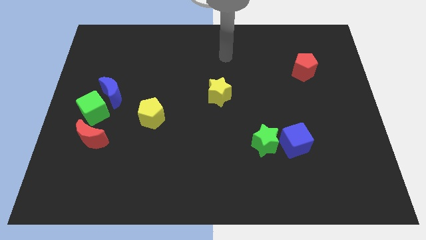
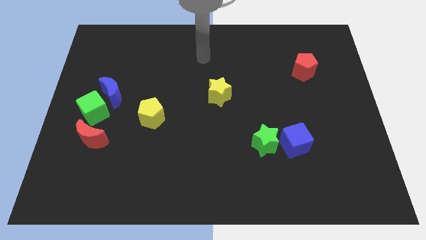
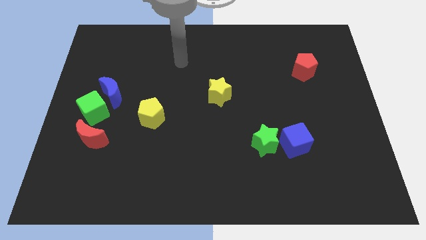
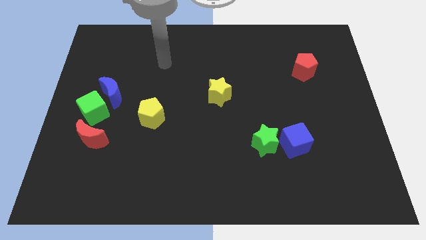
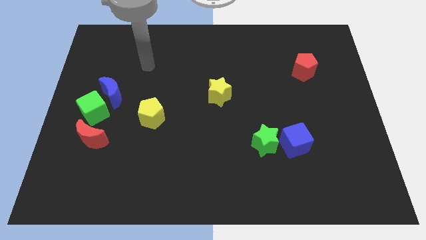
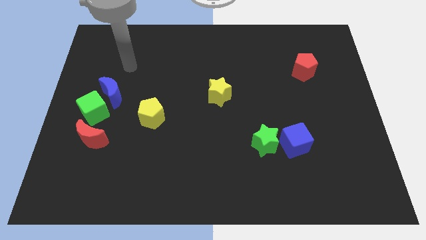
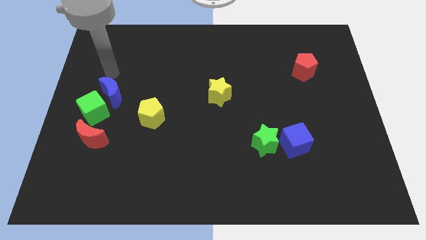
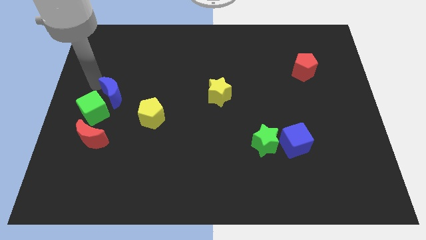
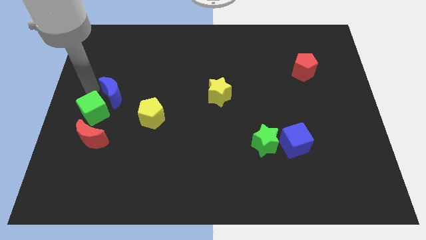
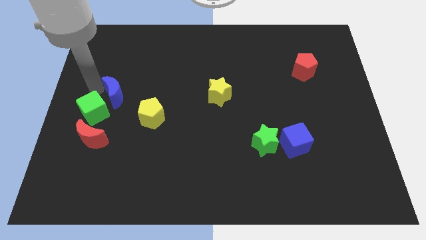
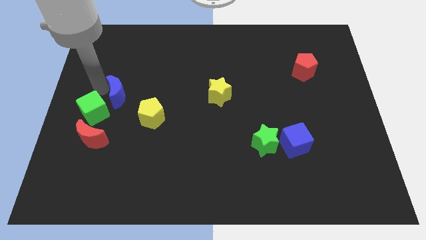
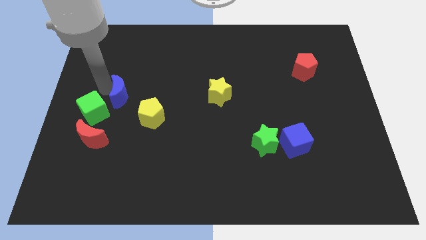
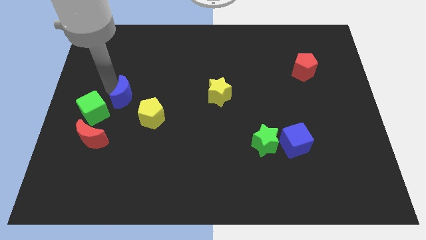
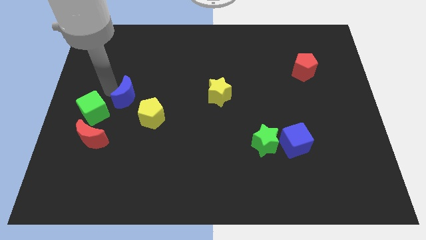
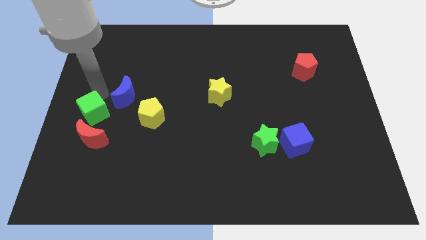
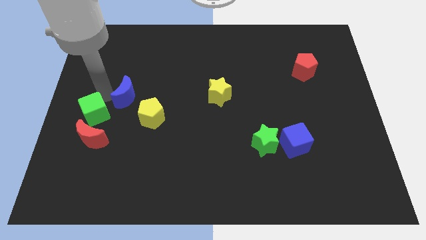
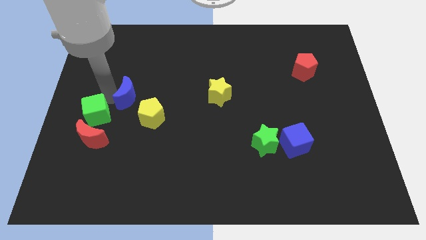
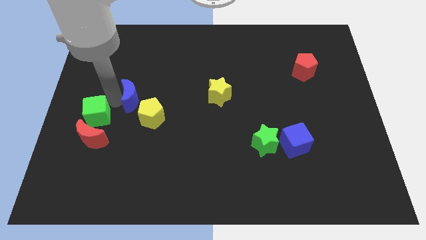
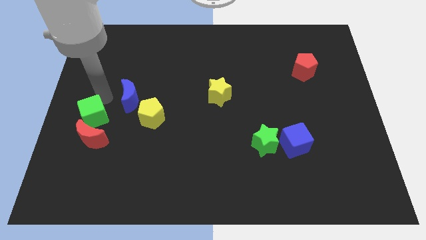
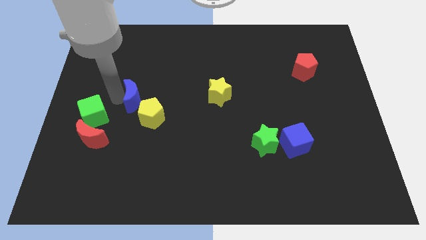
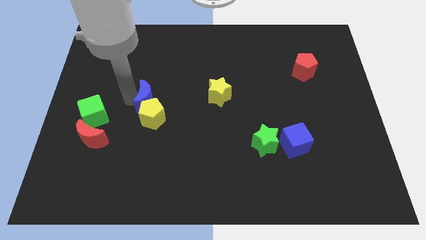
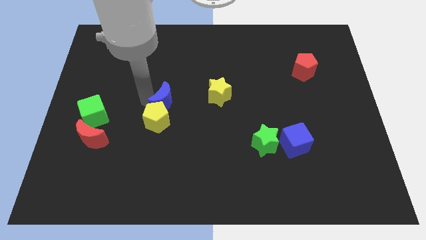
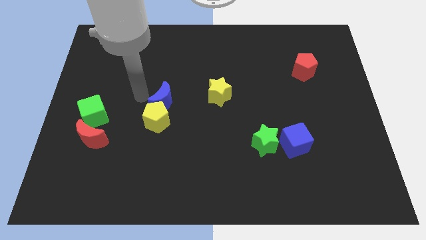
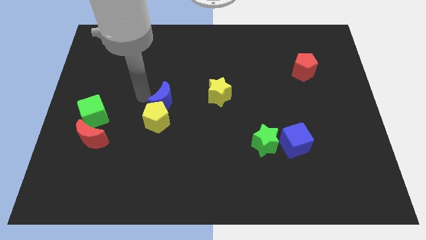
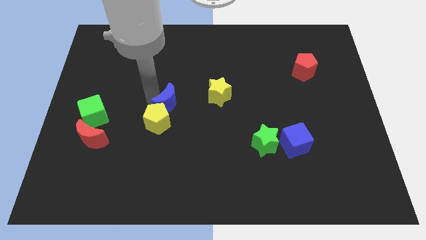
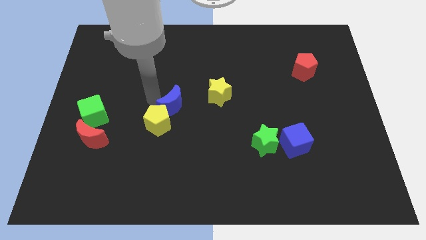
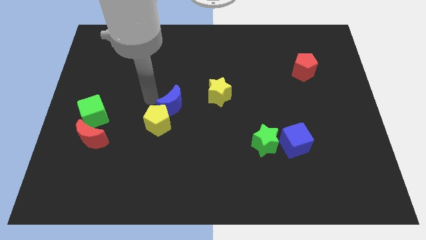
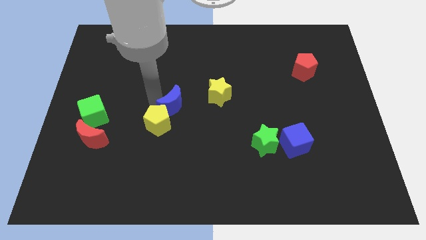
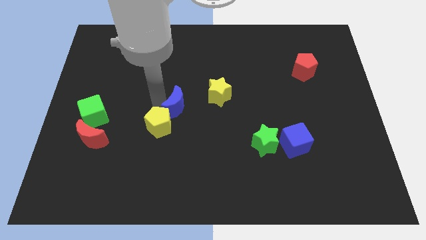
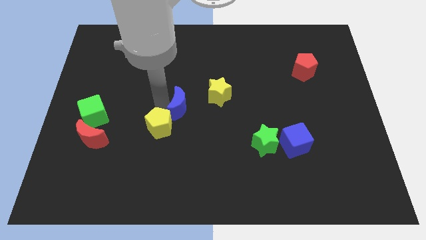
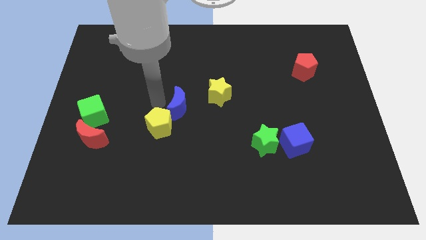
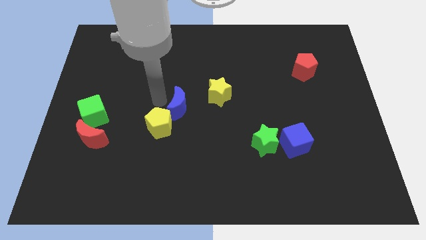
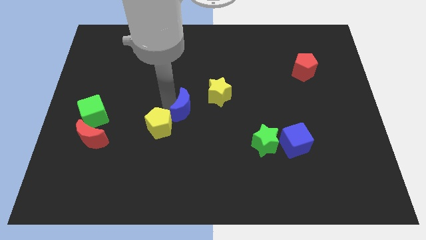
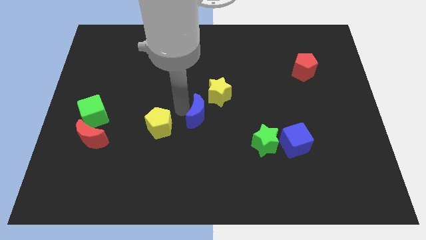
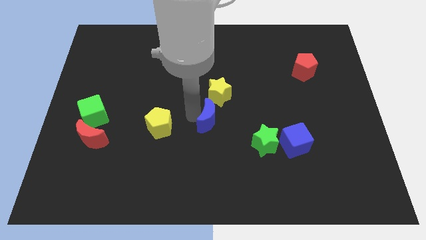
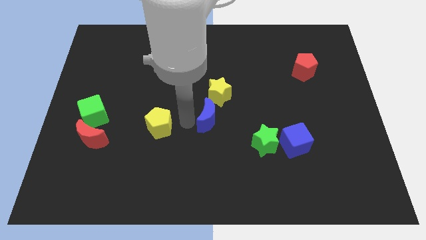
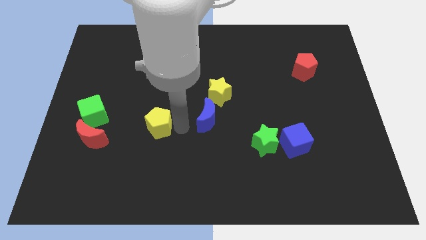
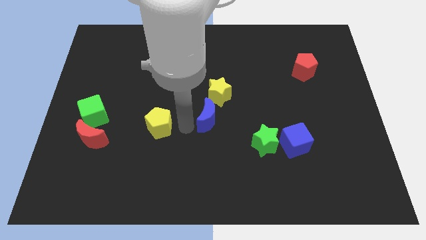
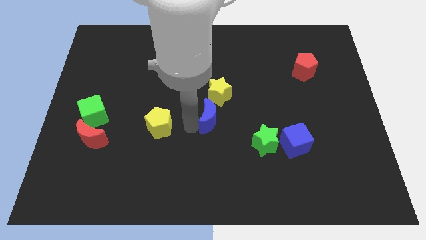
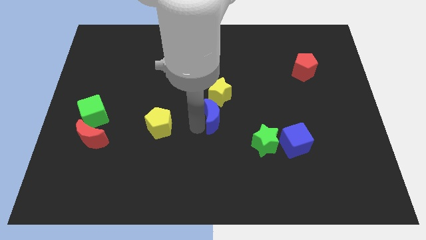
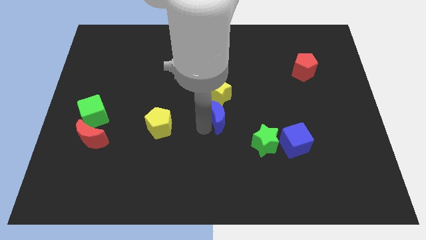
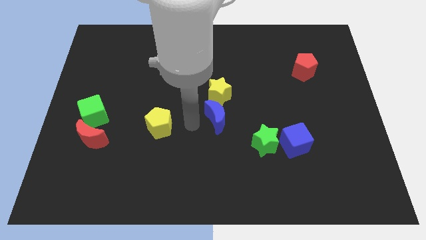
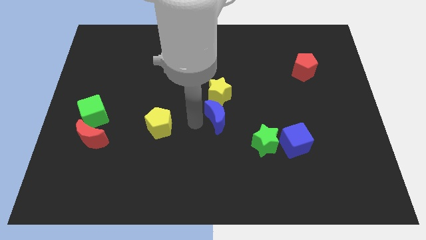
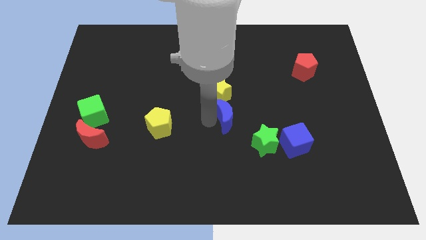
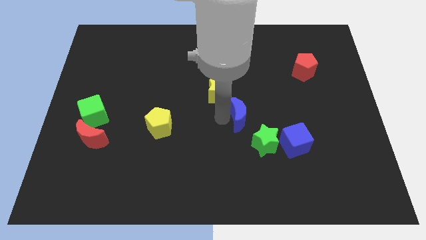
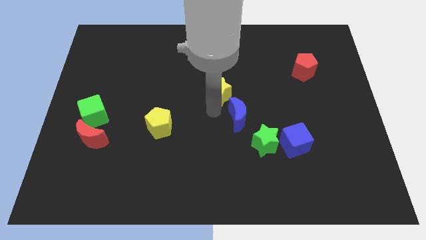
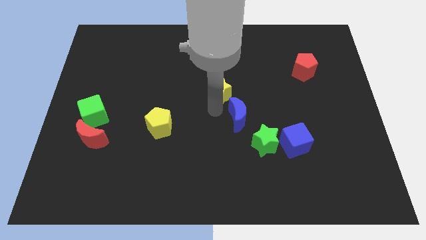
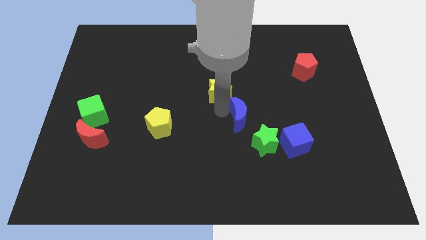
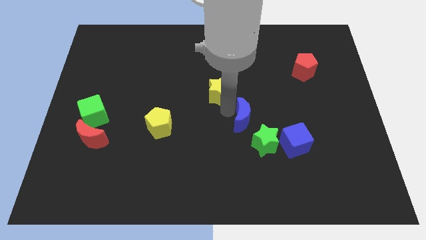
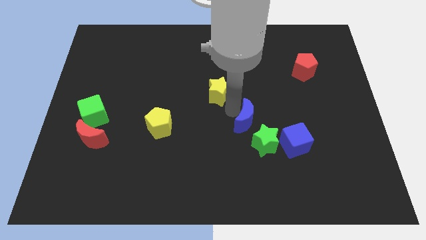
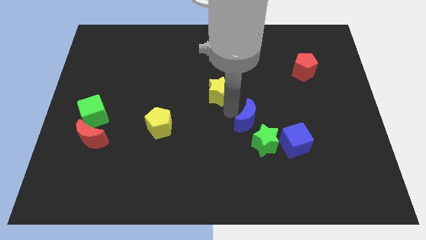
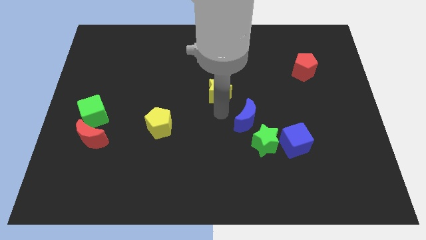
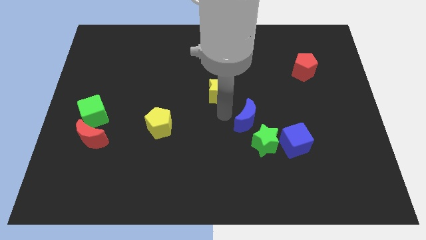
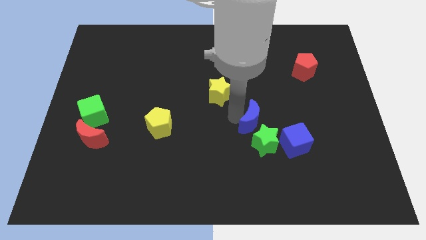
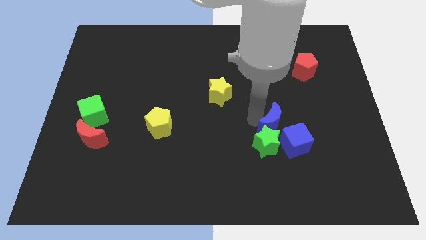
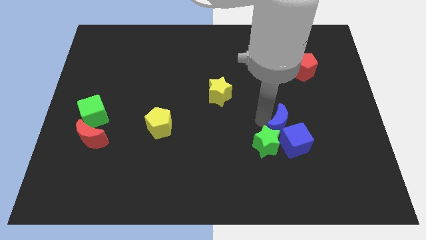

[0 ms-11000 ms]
move the blue moon close to the blue cube

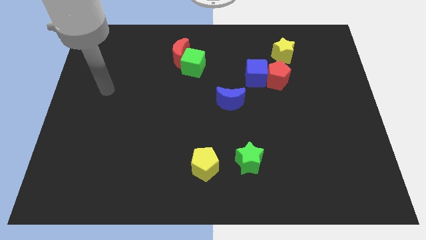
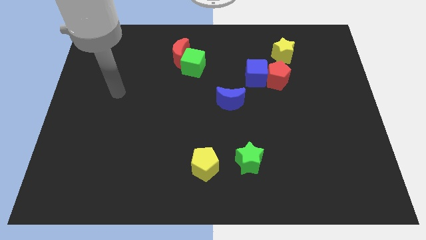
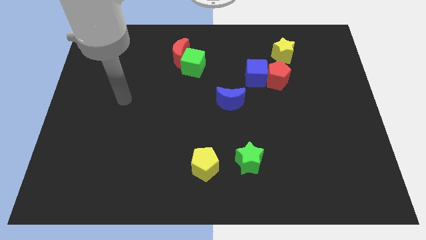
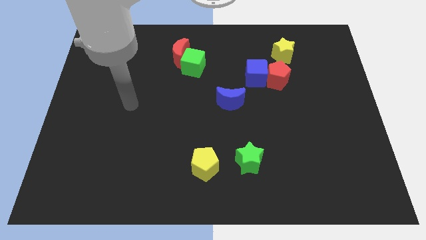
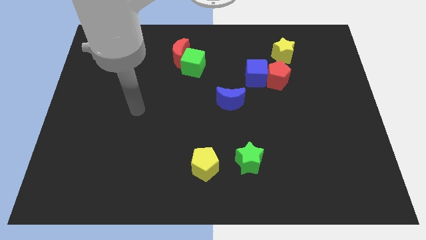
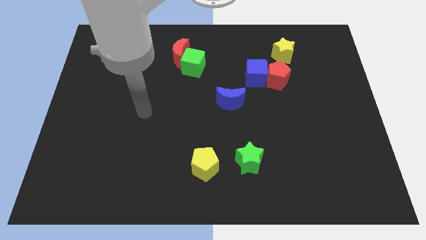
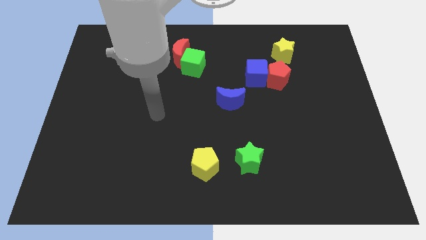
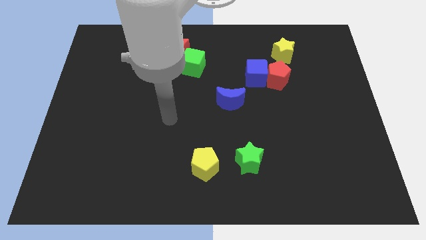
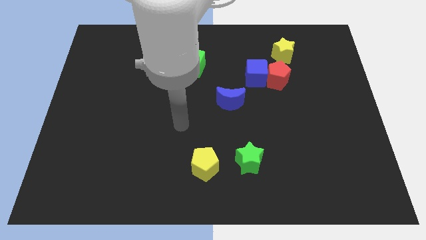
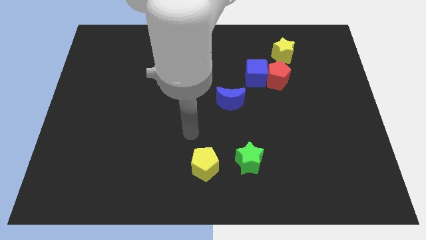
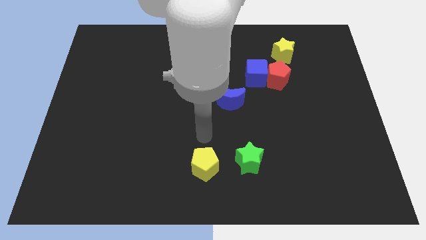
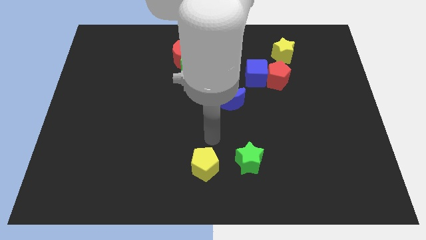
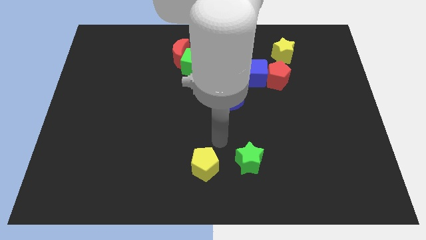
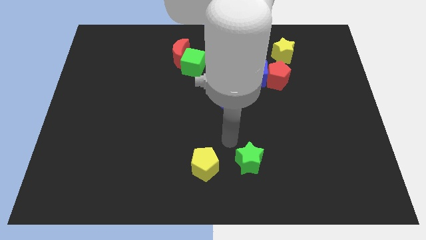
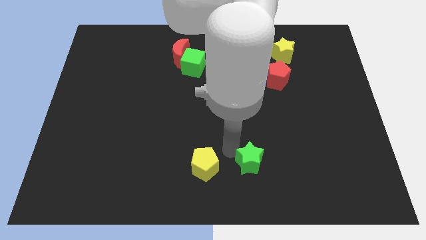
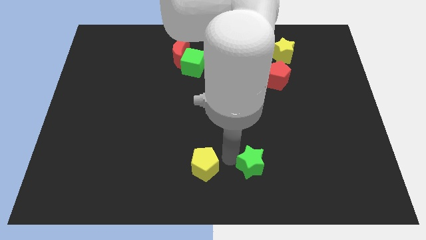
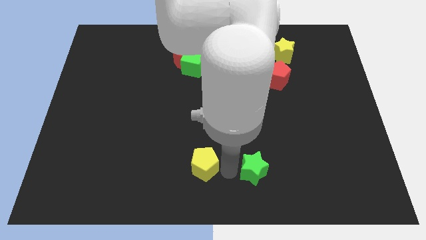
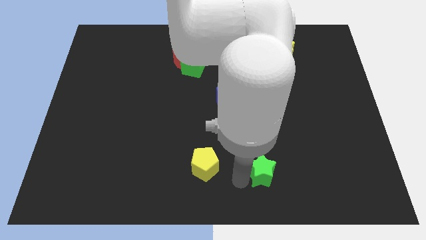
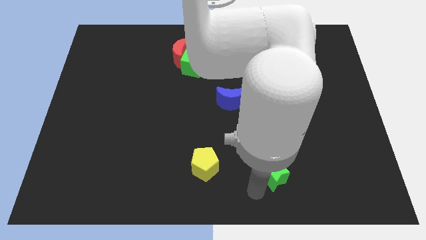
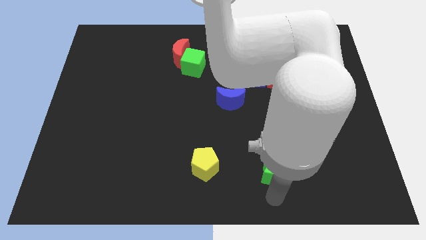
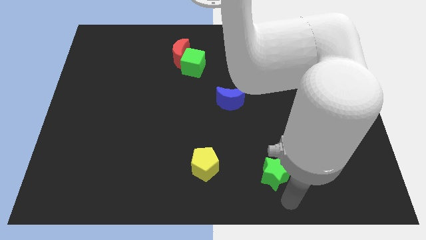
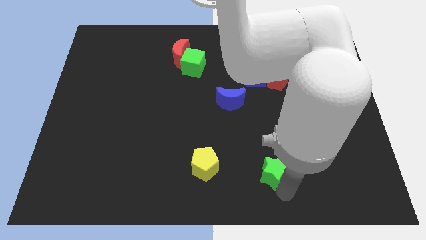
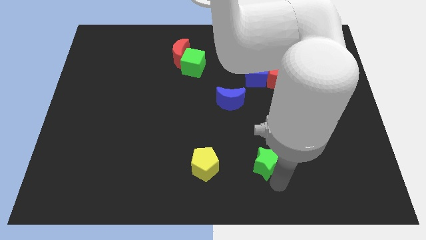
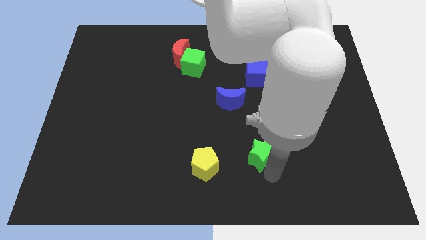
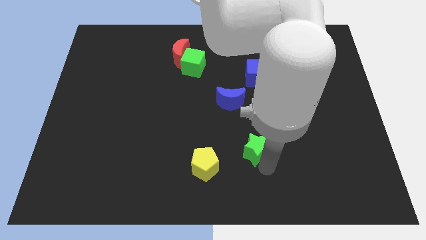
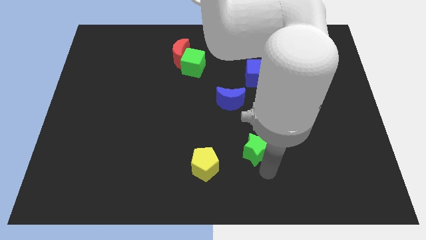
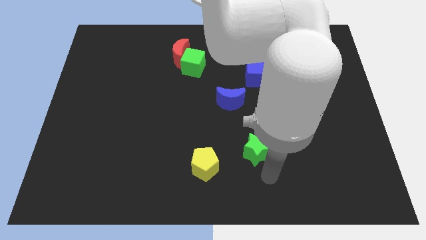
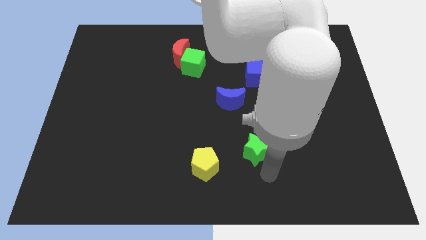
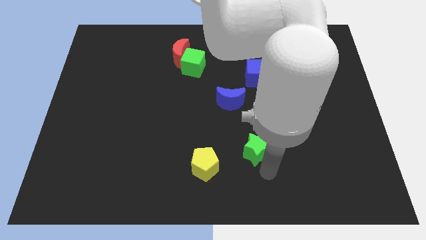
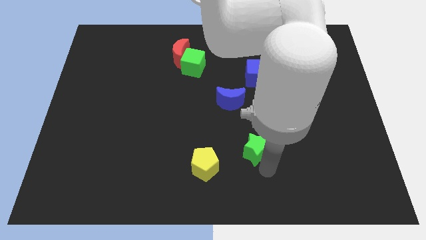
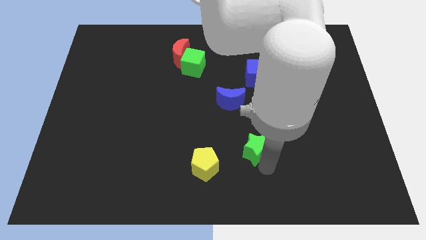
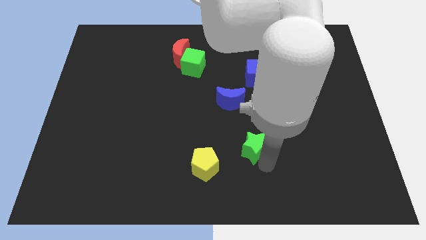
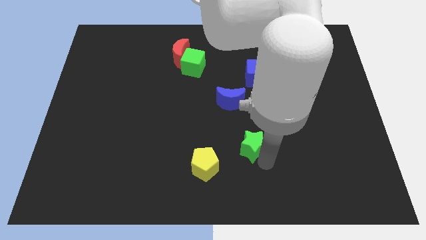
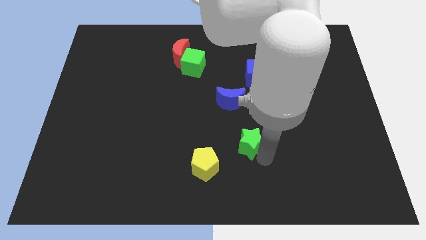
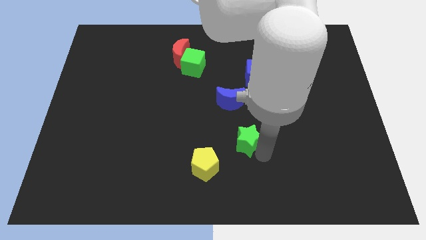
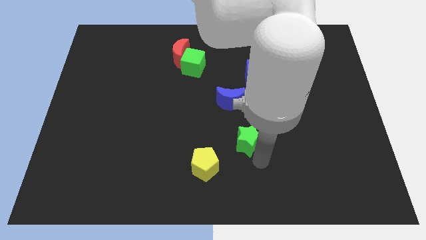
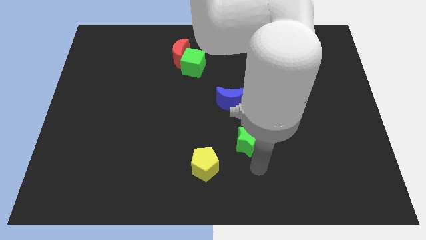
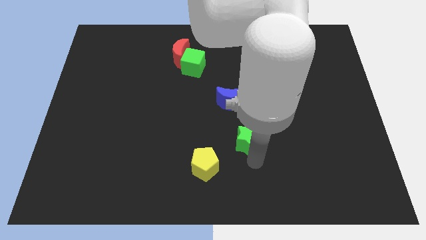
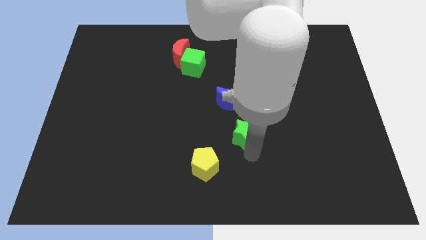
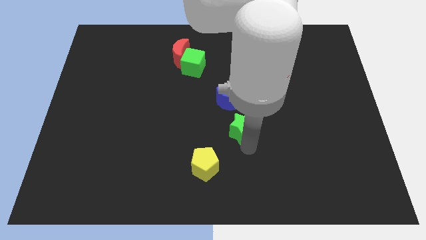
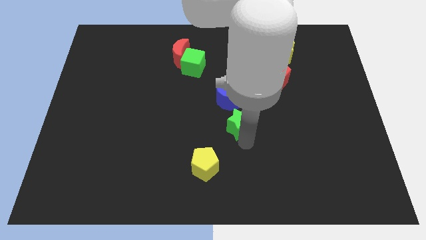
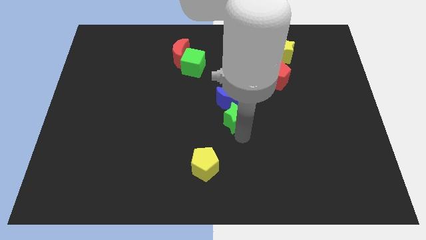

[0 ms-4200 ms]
slide the green star to the blue moon
